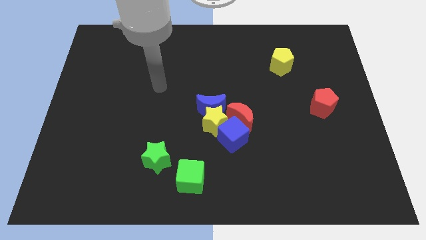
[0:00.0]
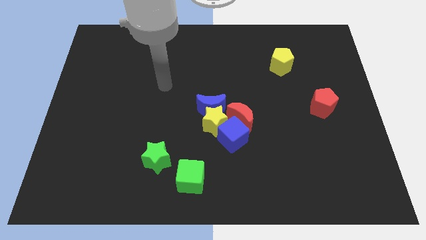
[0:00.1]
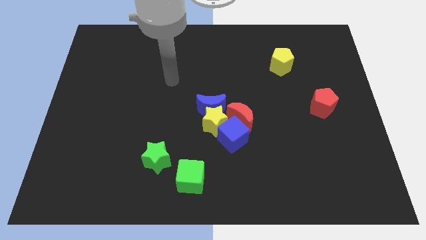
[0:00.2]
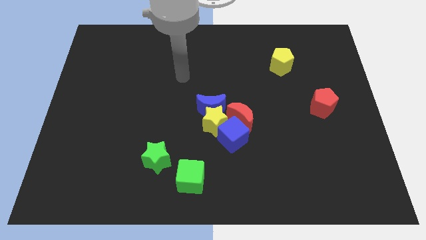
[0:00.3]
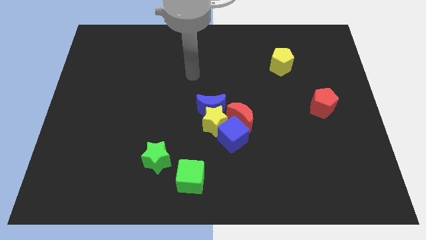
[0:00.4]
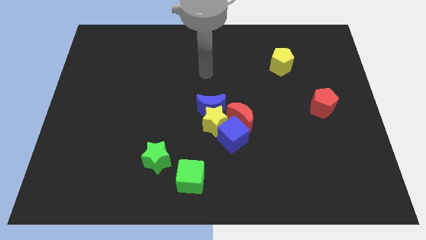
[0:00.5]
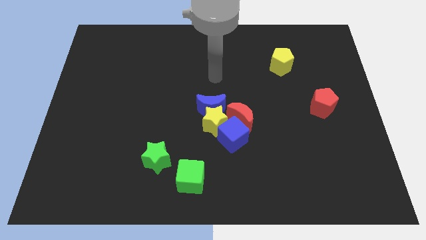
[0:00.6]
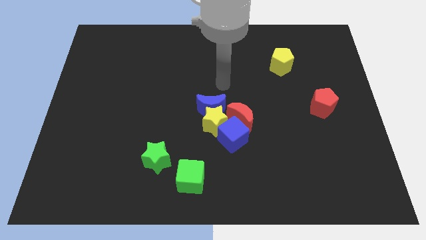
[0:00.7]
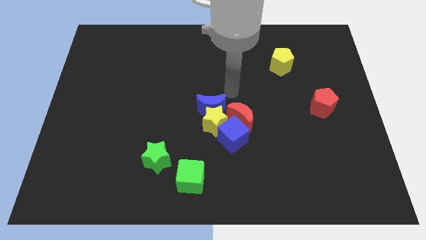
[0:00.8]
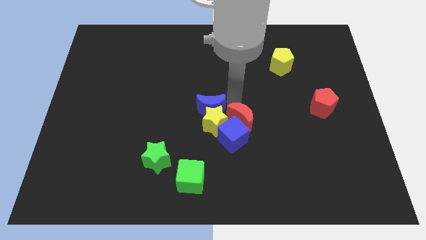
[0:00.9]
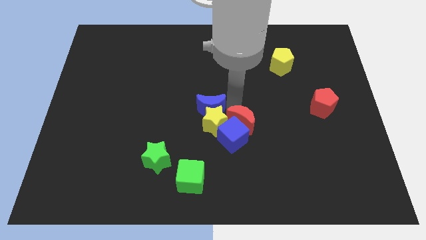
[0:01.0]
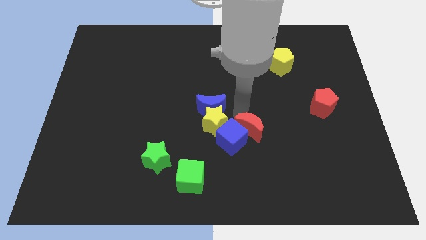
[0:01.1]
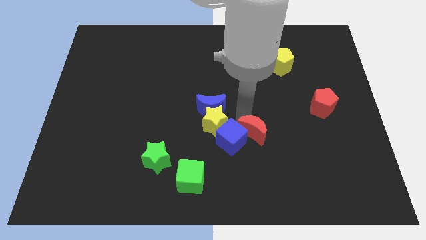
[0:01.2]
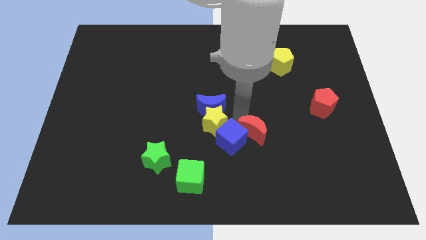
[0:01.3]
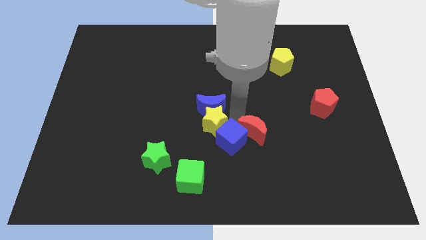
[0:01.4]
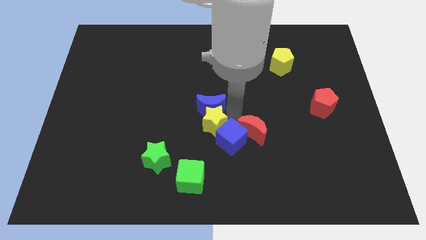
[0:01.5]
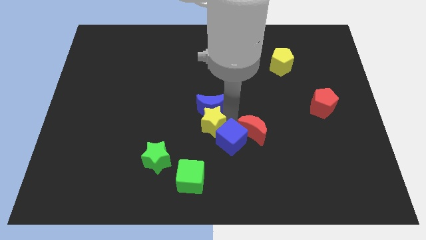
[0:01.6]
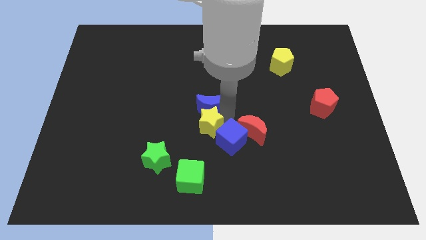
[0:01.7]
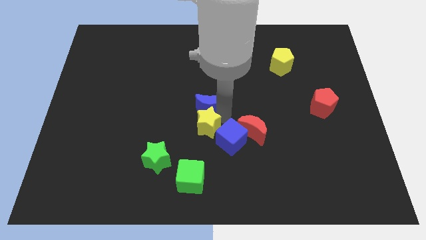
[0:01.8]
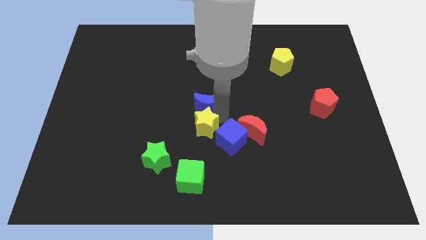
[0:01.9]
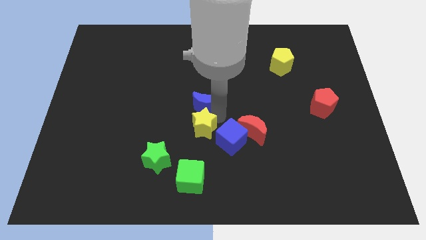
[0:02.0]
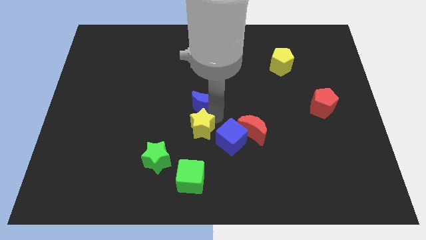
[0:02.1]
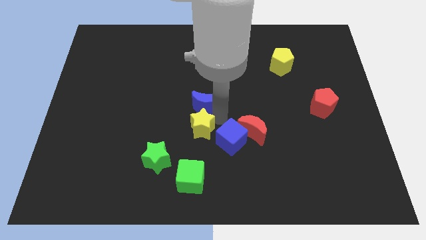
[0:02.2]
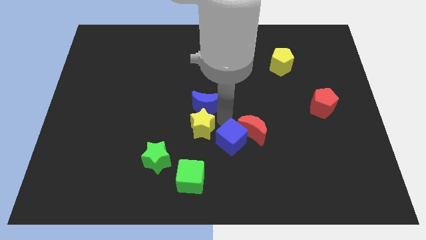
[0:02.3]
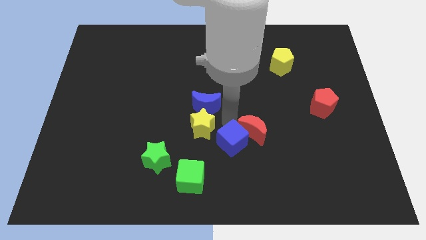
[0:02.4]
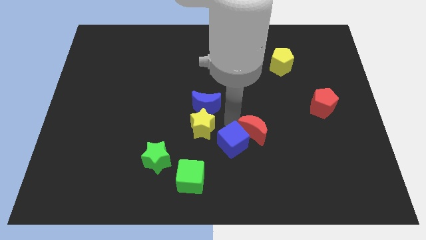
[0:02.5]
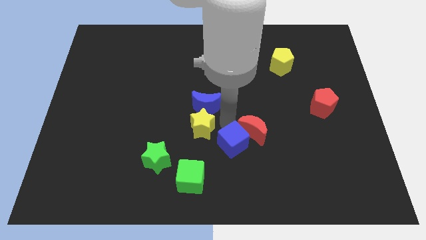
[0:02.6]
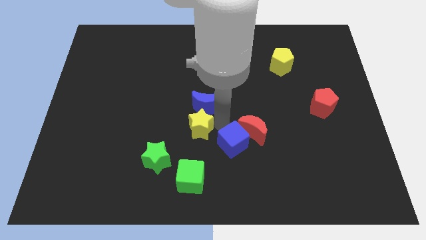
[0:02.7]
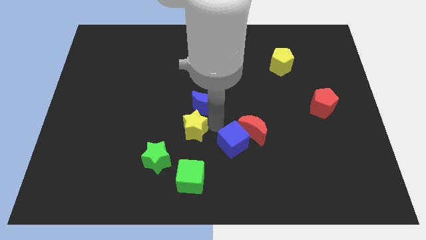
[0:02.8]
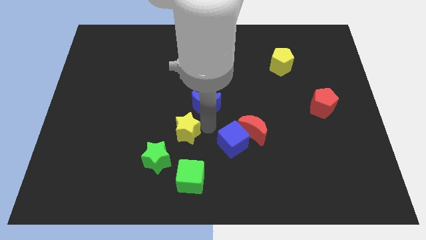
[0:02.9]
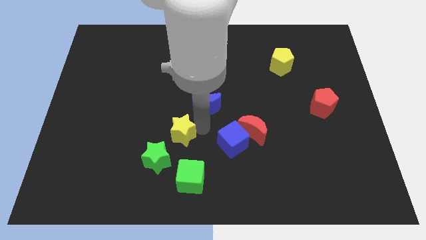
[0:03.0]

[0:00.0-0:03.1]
pull the yellow star apart from the blue moon, blue cube, and red moon

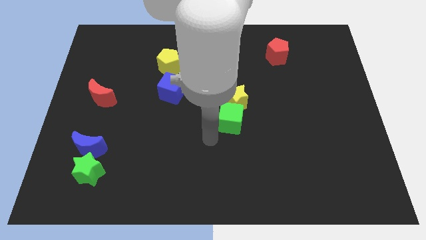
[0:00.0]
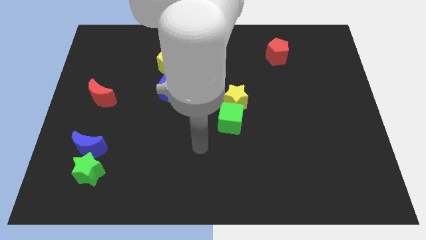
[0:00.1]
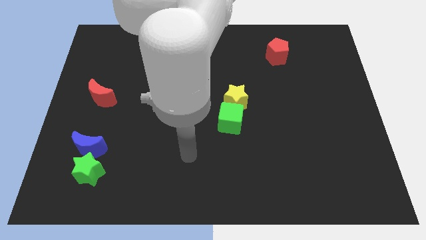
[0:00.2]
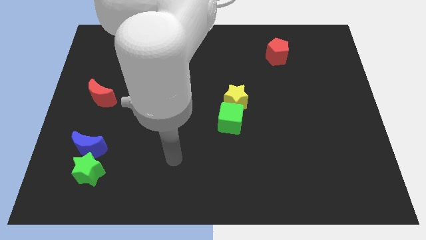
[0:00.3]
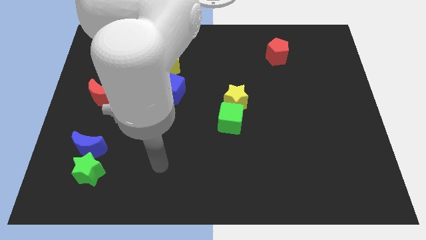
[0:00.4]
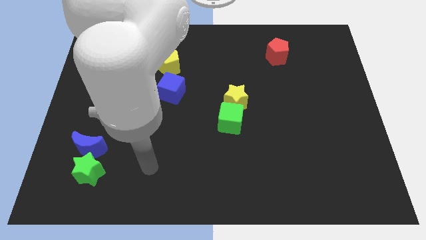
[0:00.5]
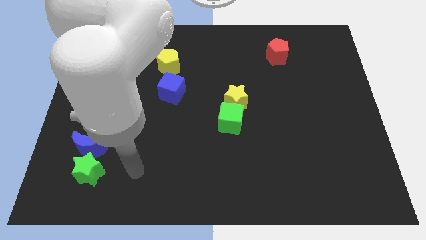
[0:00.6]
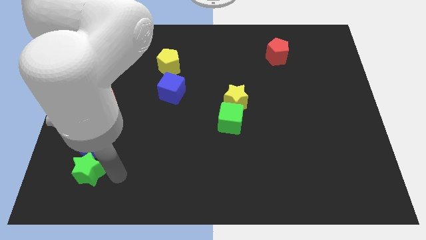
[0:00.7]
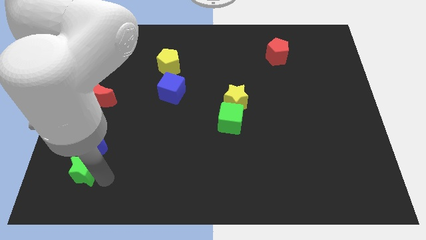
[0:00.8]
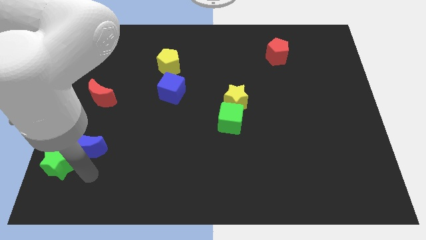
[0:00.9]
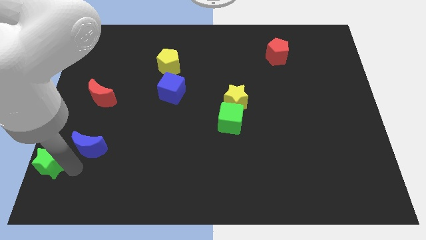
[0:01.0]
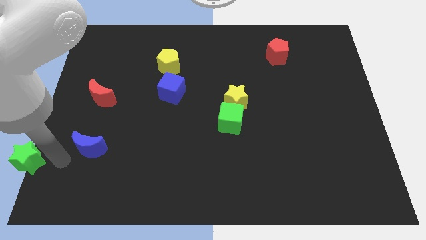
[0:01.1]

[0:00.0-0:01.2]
separate the blue moon from the green star

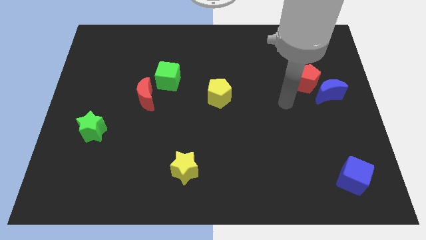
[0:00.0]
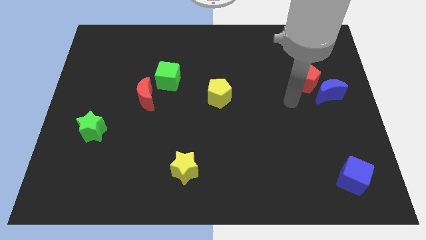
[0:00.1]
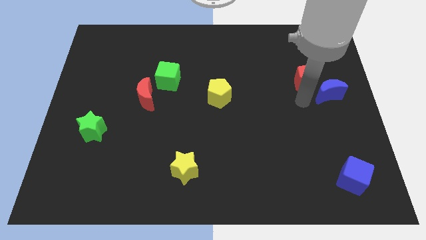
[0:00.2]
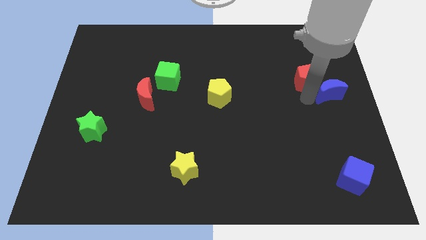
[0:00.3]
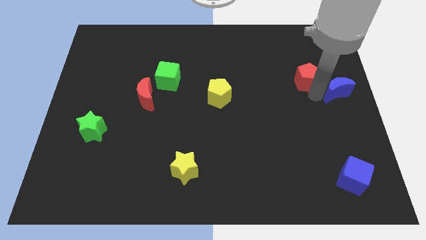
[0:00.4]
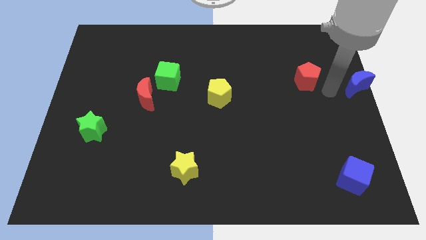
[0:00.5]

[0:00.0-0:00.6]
separate the red pentagon from the blue moon

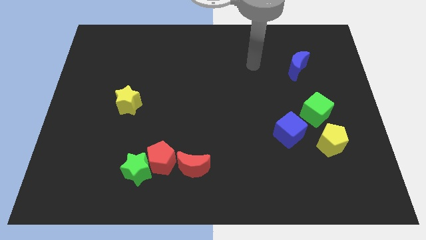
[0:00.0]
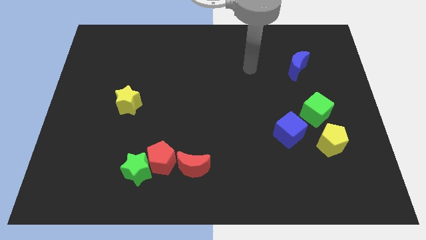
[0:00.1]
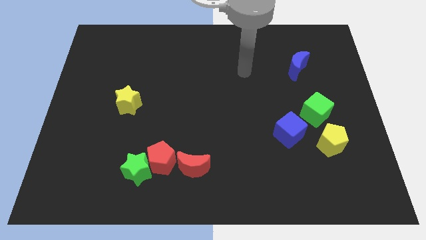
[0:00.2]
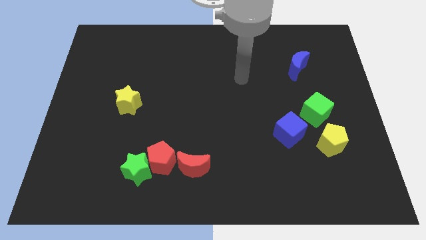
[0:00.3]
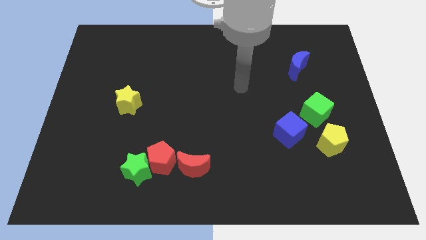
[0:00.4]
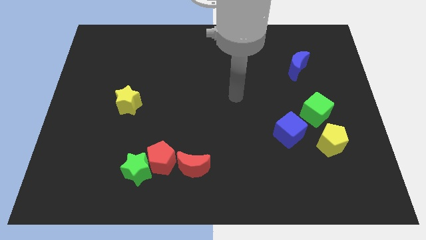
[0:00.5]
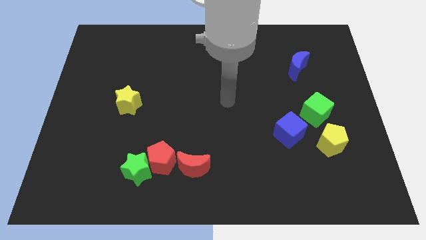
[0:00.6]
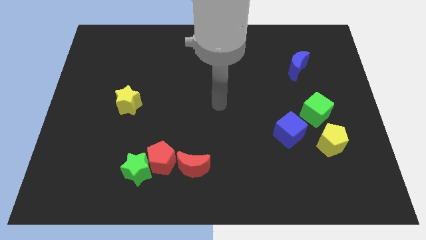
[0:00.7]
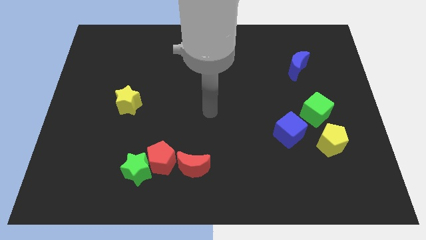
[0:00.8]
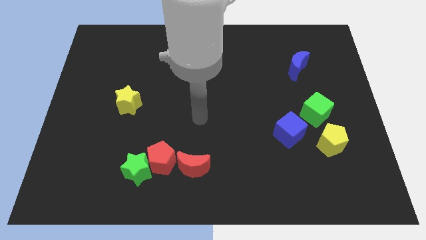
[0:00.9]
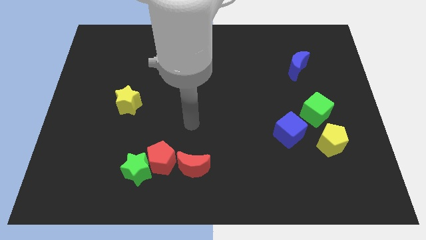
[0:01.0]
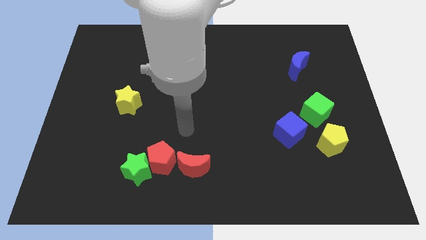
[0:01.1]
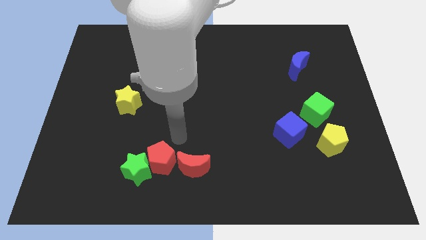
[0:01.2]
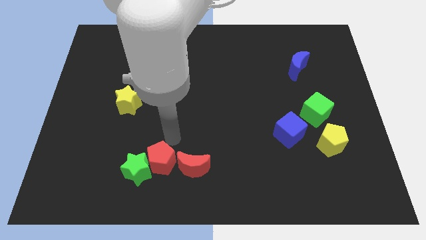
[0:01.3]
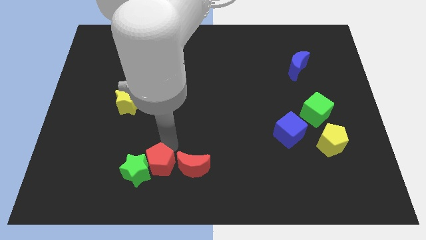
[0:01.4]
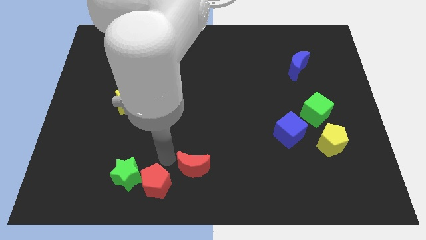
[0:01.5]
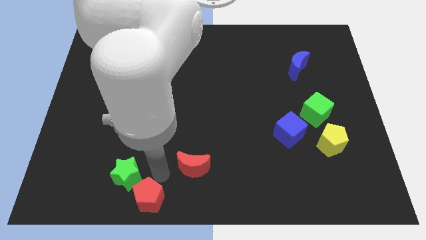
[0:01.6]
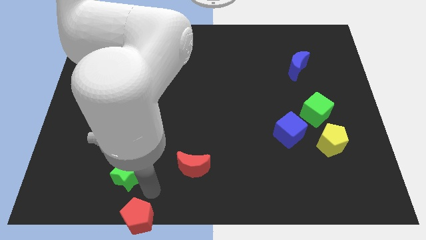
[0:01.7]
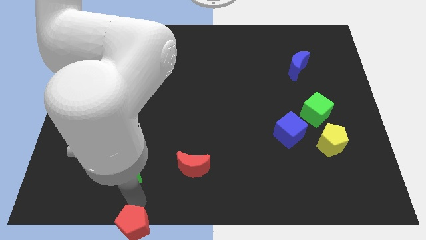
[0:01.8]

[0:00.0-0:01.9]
separate the green star from the red pentagon

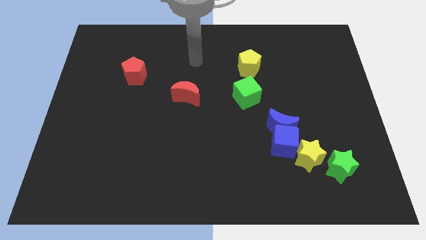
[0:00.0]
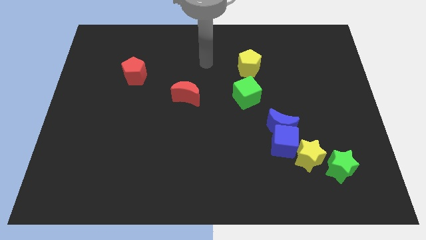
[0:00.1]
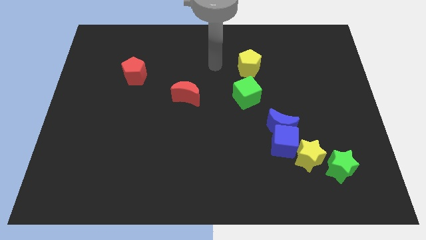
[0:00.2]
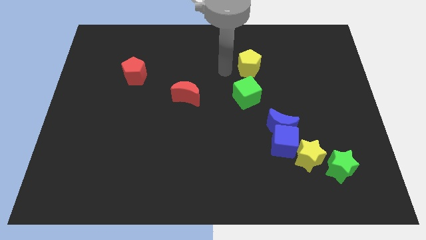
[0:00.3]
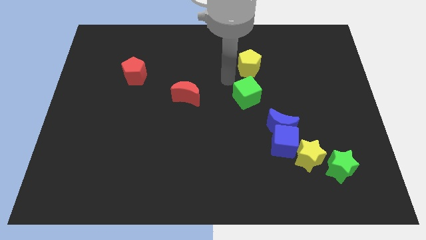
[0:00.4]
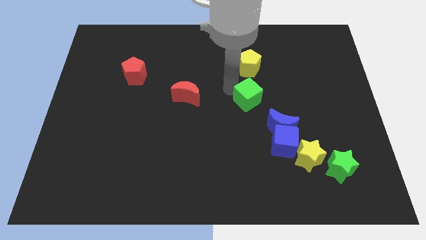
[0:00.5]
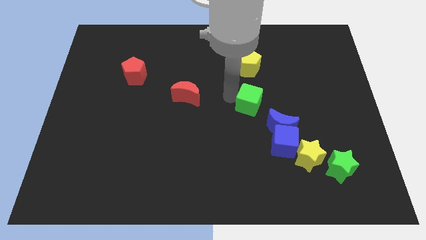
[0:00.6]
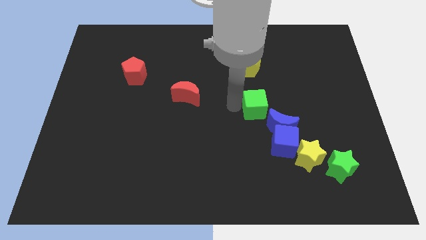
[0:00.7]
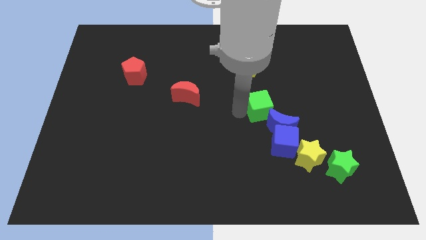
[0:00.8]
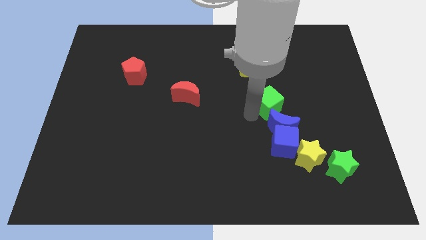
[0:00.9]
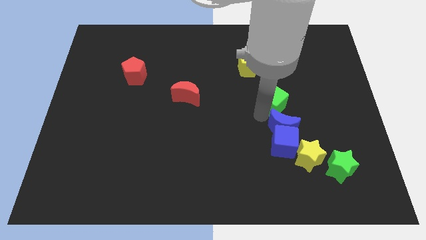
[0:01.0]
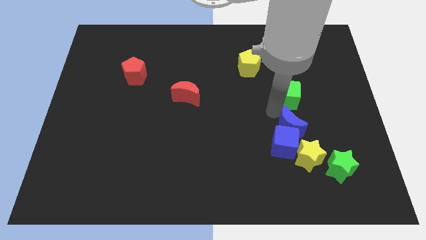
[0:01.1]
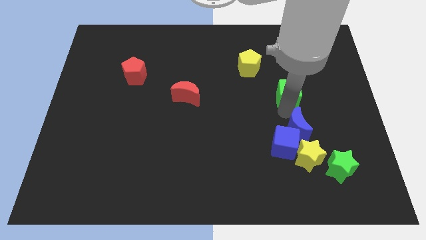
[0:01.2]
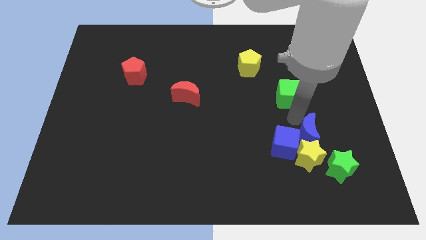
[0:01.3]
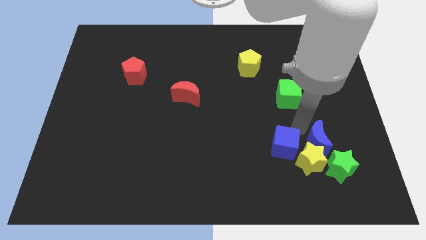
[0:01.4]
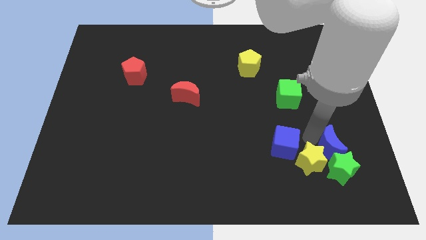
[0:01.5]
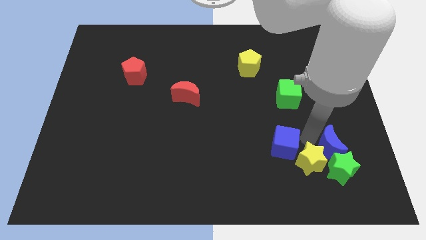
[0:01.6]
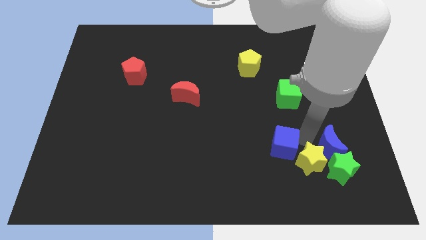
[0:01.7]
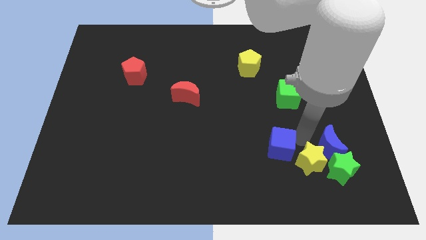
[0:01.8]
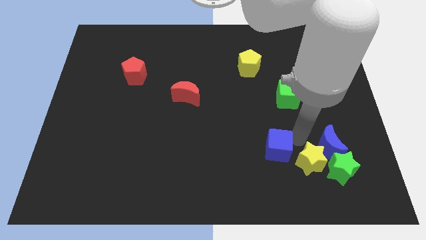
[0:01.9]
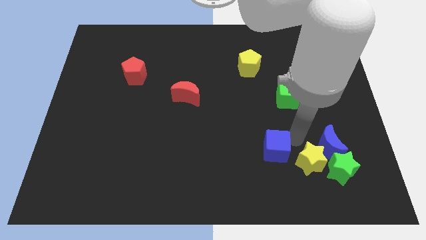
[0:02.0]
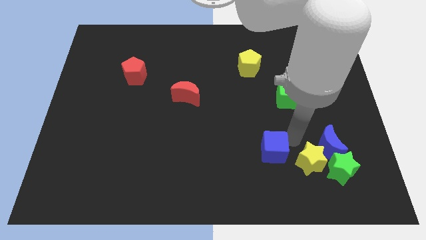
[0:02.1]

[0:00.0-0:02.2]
separate the blue cube from the blue moon and yellow star

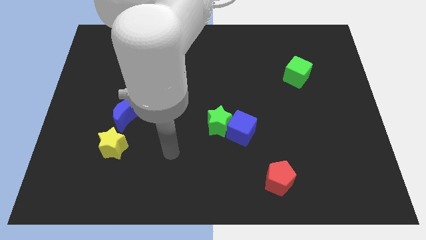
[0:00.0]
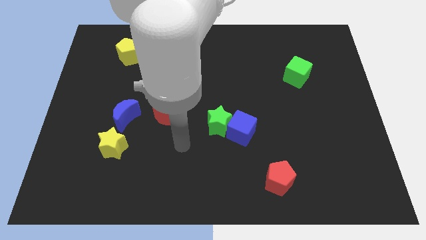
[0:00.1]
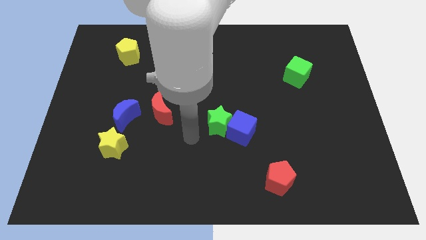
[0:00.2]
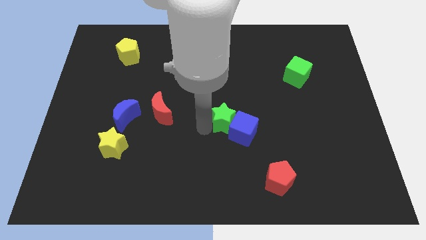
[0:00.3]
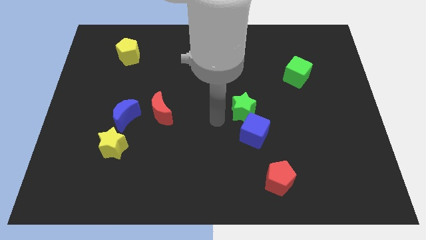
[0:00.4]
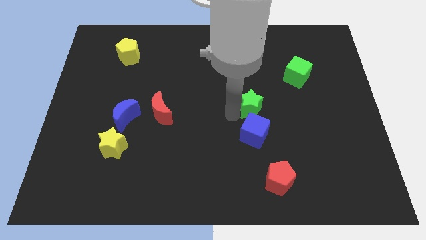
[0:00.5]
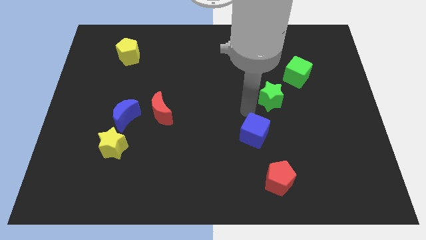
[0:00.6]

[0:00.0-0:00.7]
separate the blue cube from the green star
